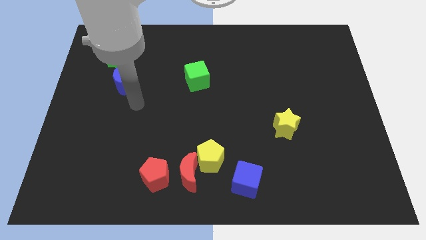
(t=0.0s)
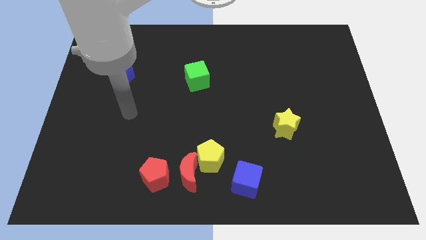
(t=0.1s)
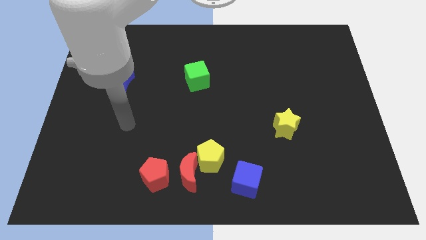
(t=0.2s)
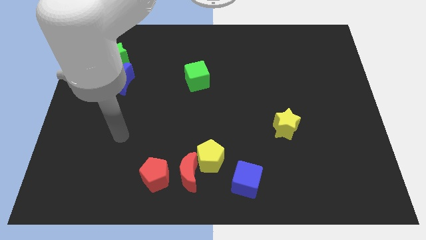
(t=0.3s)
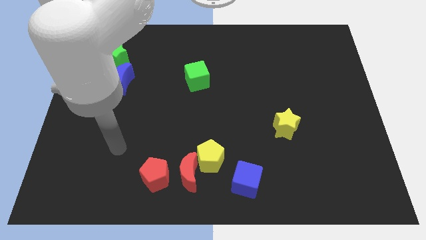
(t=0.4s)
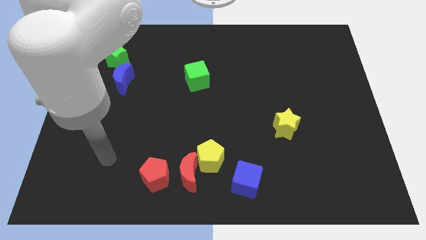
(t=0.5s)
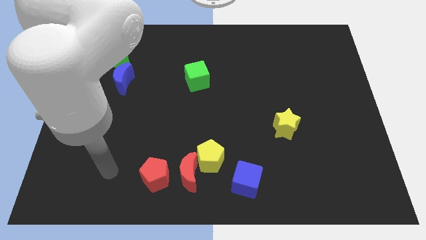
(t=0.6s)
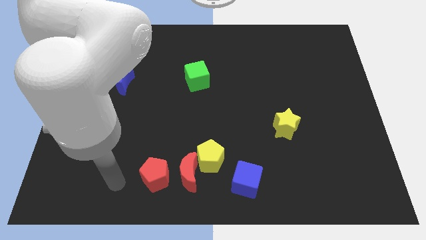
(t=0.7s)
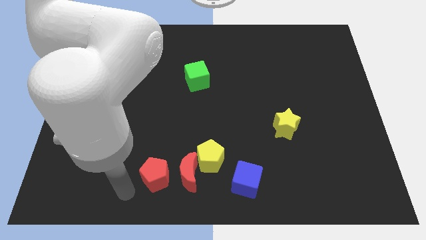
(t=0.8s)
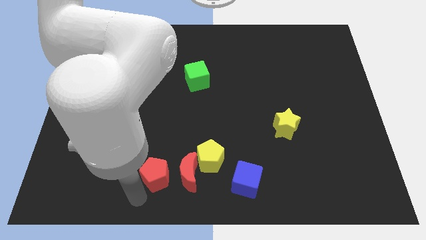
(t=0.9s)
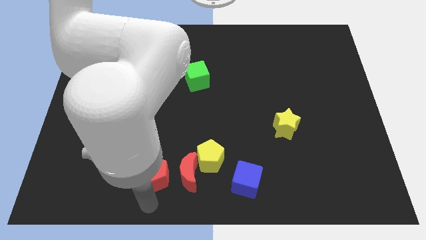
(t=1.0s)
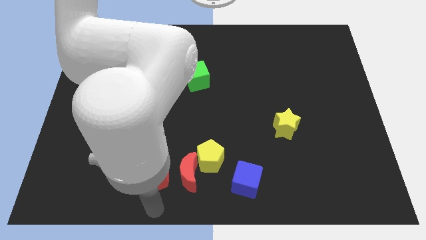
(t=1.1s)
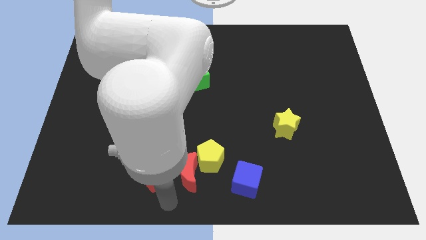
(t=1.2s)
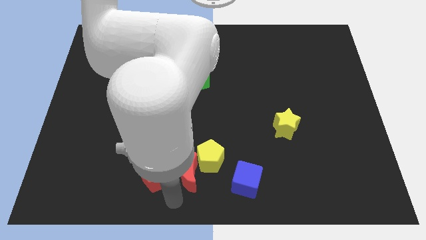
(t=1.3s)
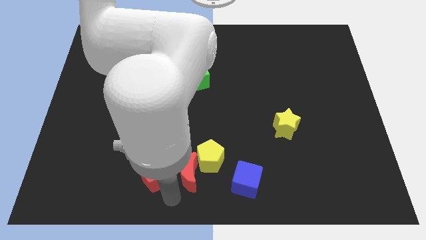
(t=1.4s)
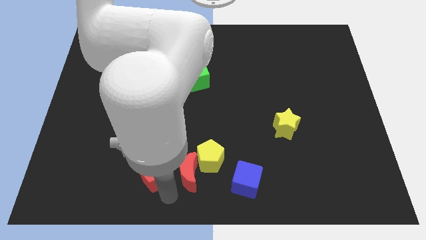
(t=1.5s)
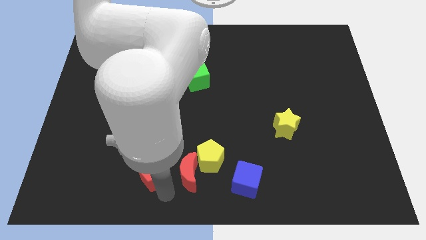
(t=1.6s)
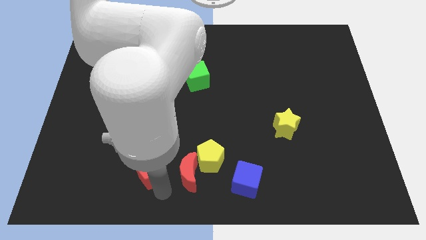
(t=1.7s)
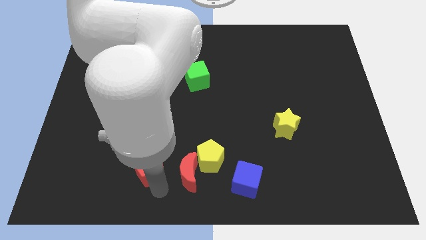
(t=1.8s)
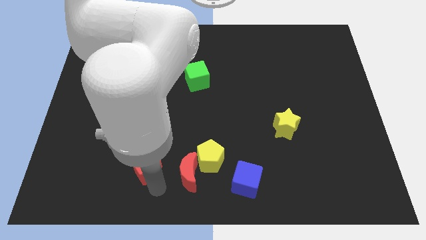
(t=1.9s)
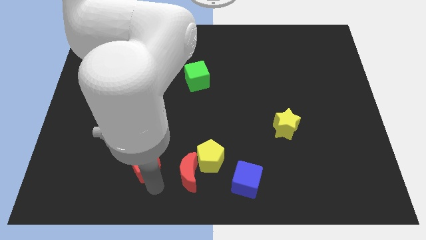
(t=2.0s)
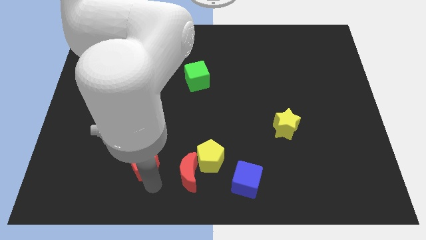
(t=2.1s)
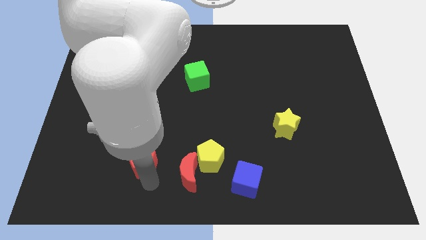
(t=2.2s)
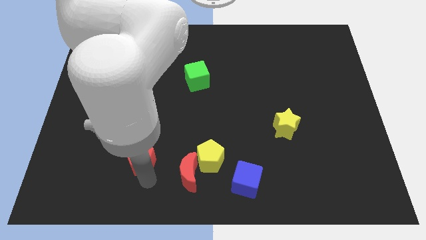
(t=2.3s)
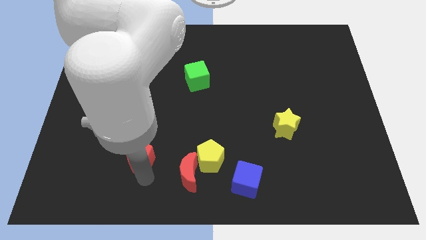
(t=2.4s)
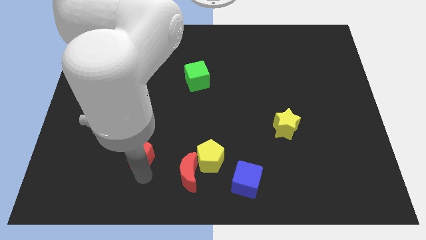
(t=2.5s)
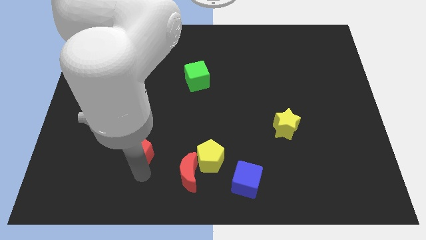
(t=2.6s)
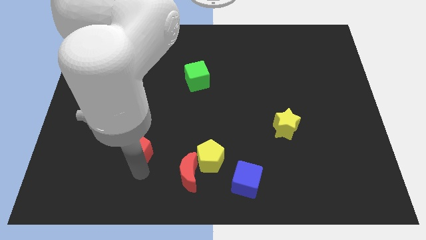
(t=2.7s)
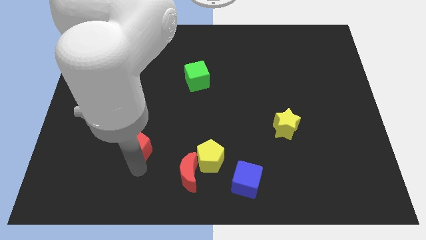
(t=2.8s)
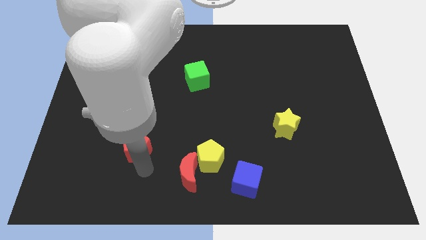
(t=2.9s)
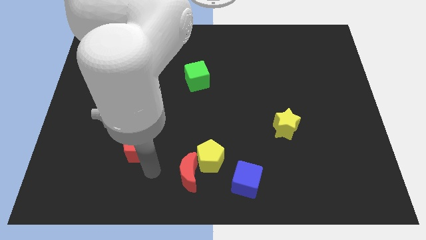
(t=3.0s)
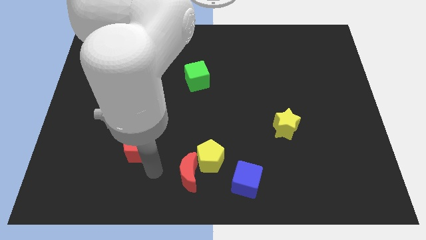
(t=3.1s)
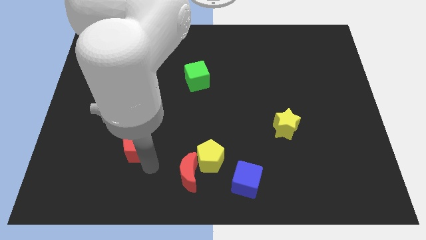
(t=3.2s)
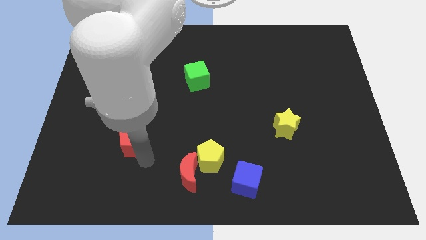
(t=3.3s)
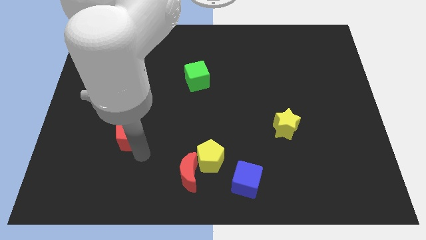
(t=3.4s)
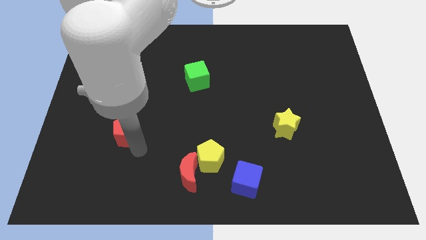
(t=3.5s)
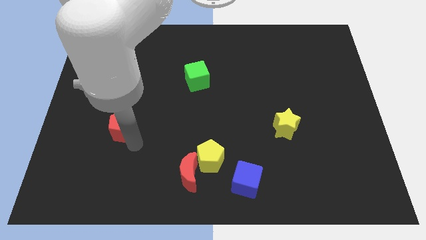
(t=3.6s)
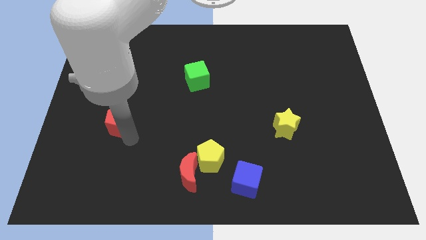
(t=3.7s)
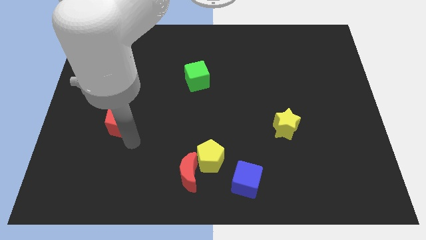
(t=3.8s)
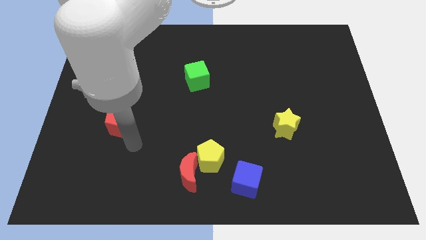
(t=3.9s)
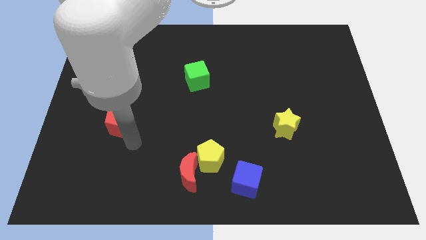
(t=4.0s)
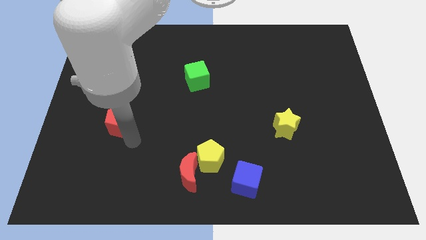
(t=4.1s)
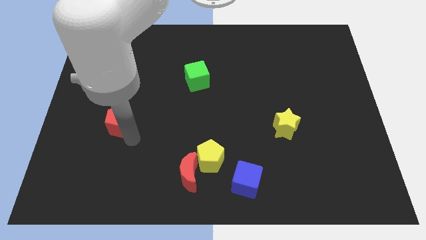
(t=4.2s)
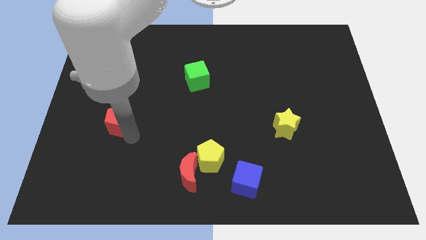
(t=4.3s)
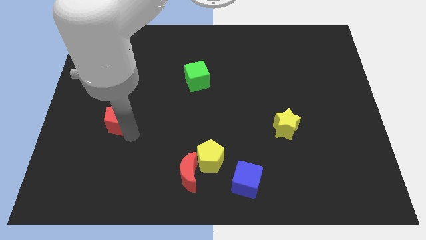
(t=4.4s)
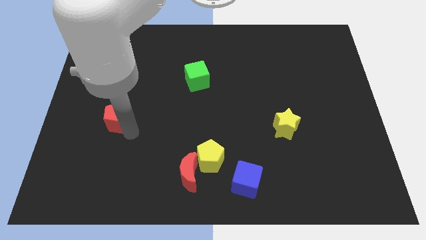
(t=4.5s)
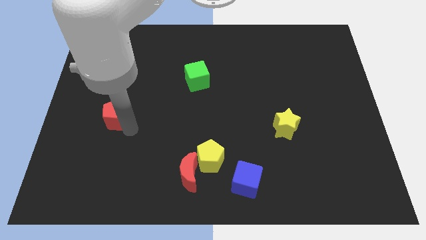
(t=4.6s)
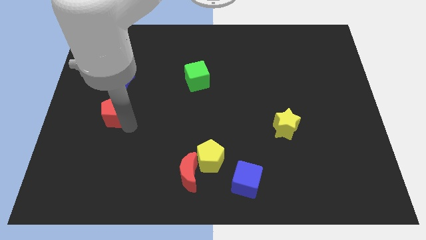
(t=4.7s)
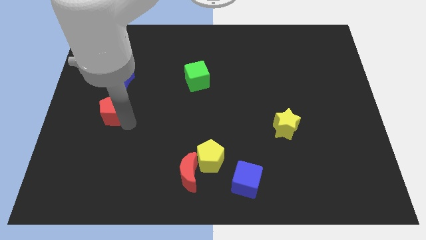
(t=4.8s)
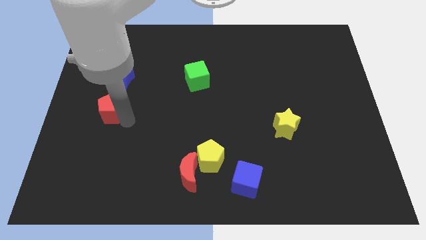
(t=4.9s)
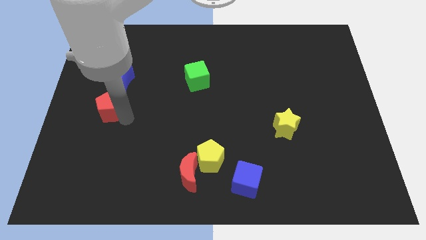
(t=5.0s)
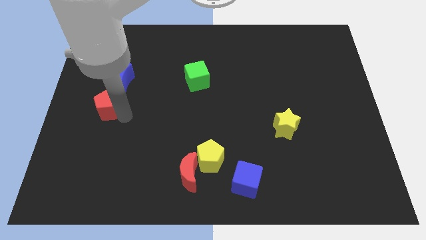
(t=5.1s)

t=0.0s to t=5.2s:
slide the red pentagon to the bottom left of the blue moon

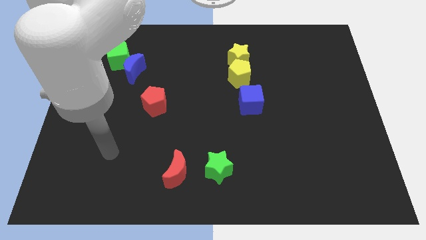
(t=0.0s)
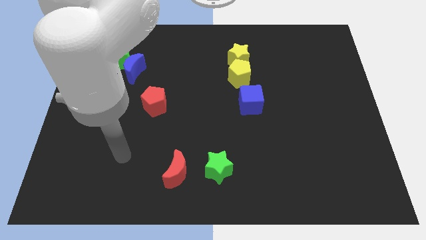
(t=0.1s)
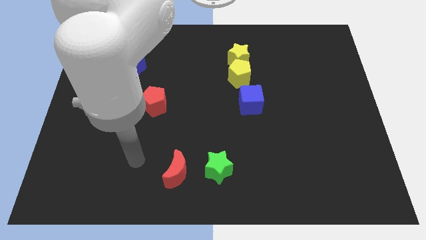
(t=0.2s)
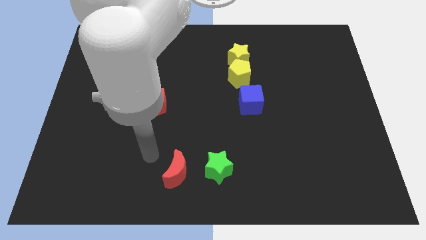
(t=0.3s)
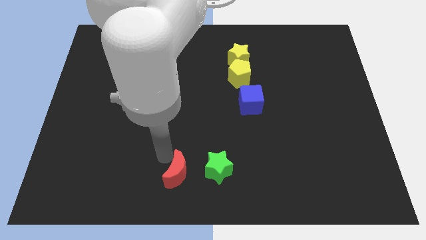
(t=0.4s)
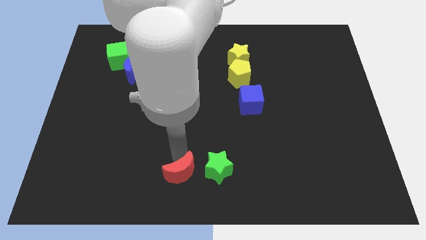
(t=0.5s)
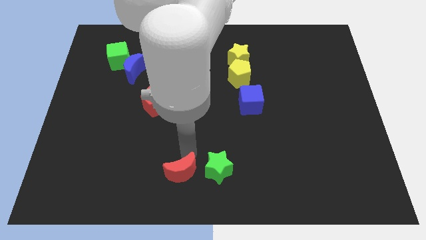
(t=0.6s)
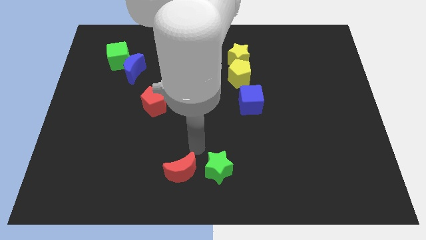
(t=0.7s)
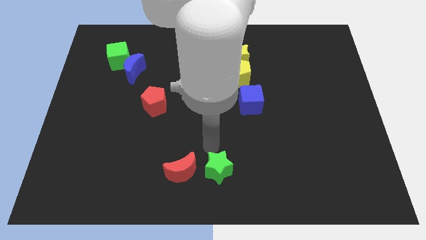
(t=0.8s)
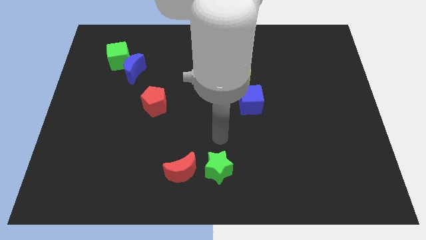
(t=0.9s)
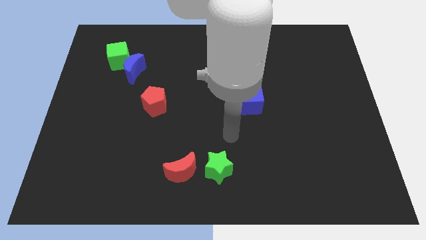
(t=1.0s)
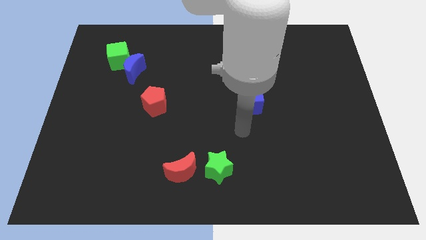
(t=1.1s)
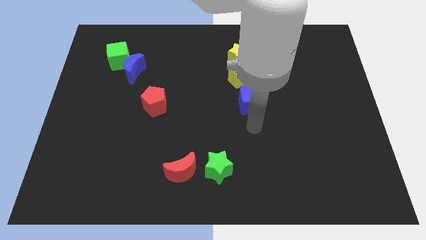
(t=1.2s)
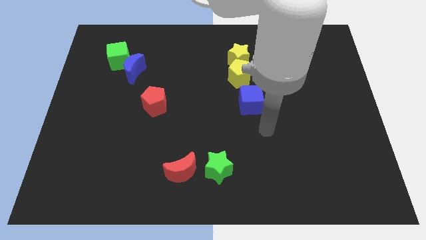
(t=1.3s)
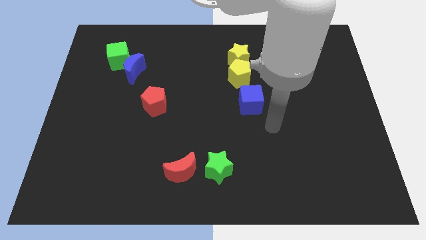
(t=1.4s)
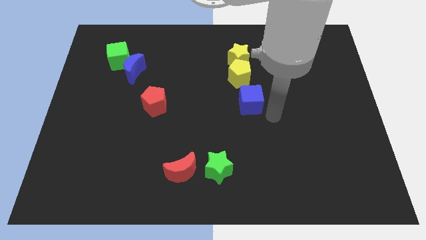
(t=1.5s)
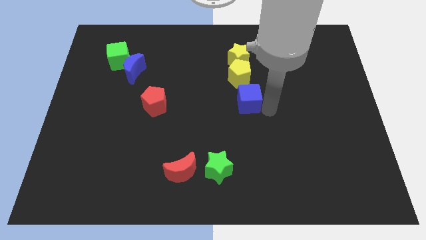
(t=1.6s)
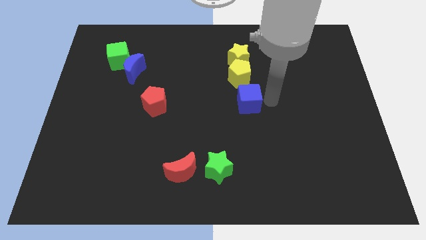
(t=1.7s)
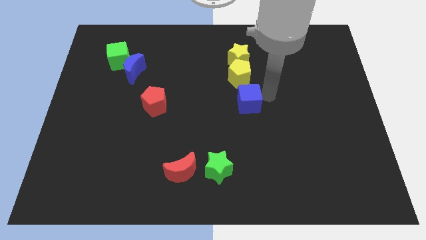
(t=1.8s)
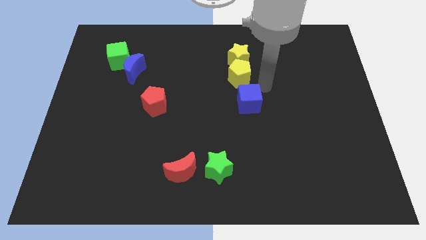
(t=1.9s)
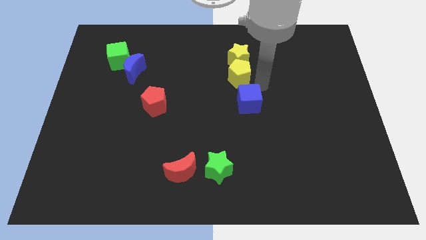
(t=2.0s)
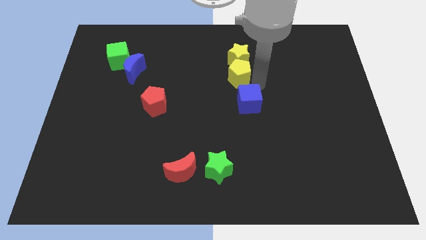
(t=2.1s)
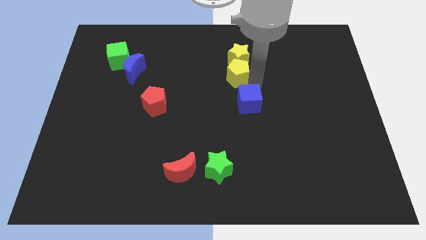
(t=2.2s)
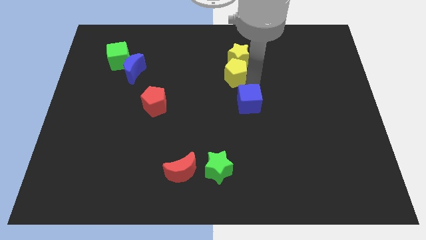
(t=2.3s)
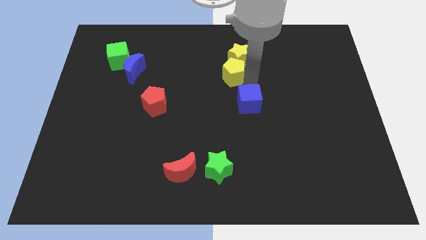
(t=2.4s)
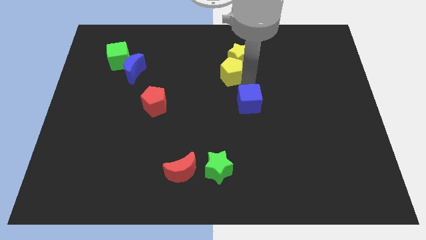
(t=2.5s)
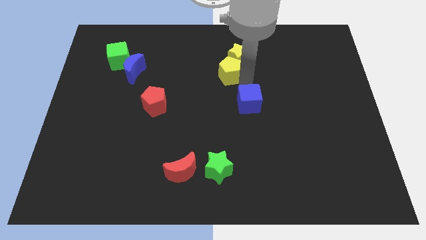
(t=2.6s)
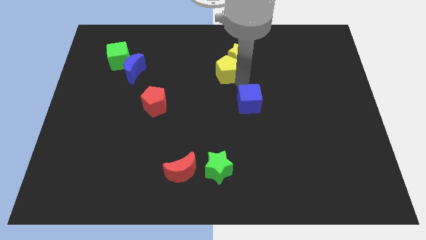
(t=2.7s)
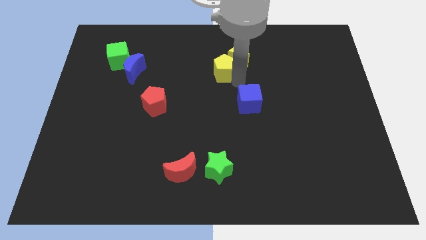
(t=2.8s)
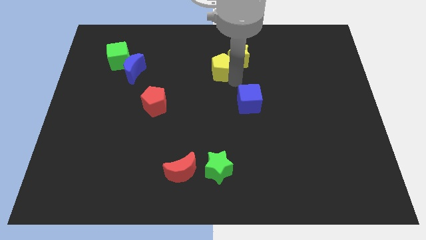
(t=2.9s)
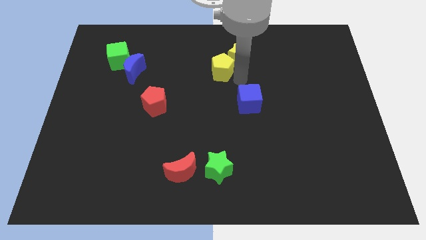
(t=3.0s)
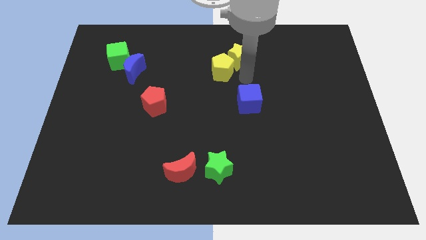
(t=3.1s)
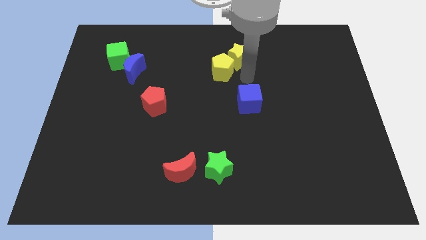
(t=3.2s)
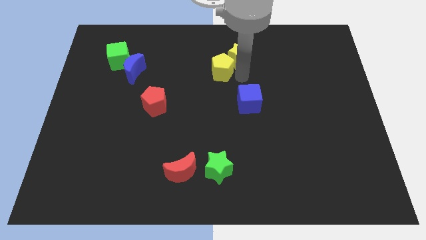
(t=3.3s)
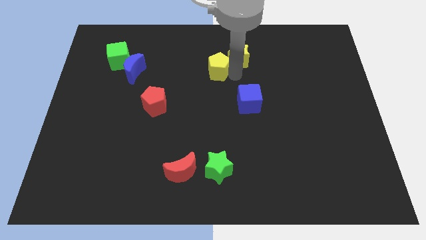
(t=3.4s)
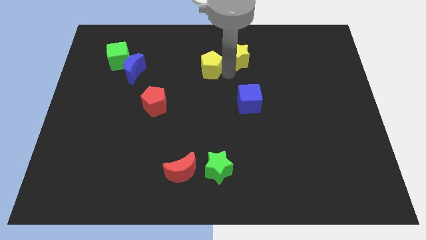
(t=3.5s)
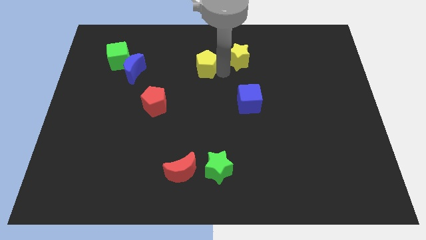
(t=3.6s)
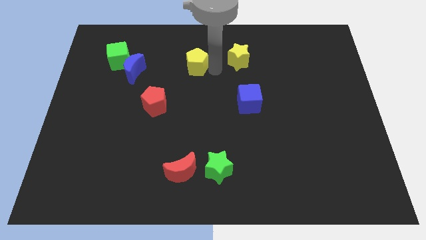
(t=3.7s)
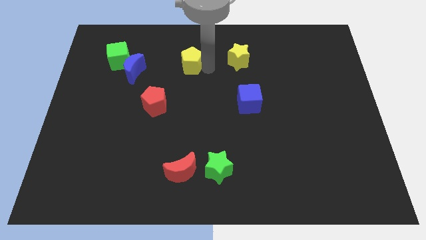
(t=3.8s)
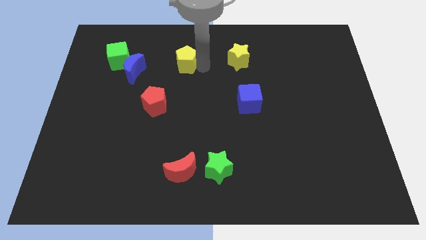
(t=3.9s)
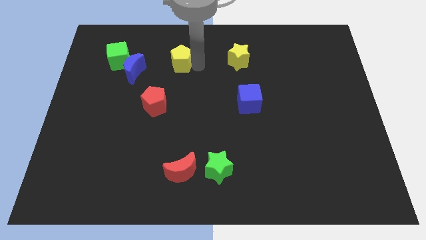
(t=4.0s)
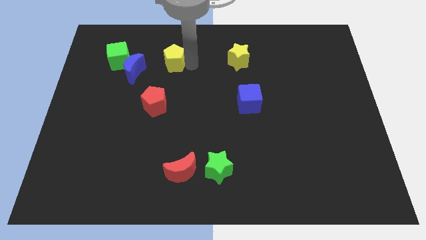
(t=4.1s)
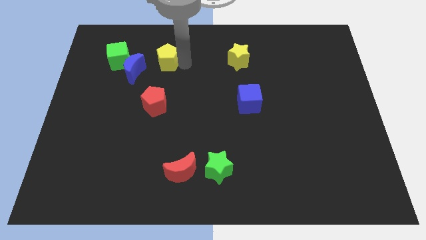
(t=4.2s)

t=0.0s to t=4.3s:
put the yellow pentagon to the top right of the blue moon
